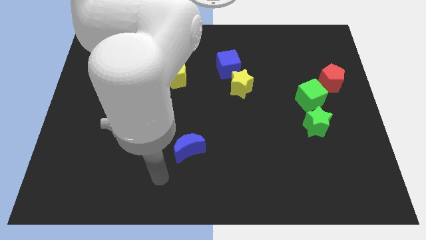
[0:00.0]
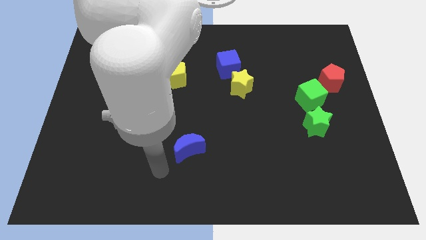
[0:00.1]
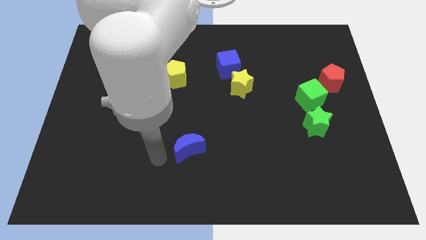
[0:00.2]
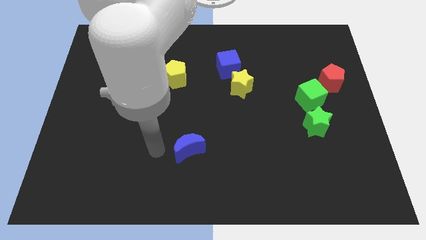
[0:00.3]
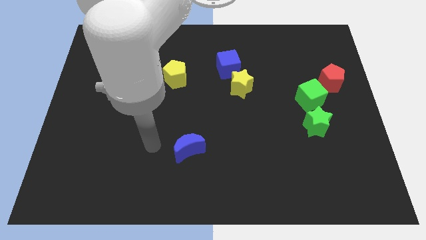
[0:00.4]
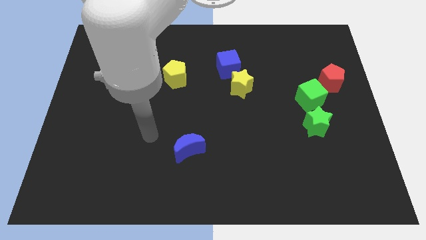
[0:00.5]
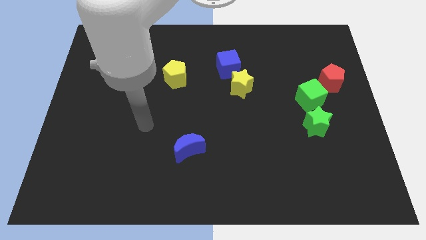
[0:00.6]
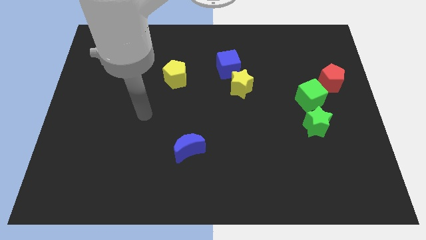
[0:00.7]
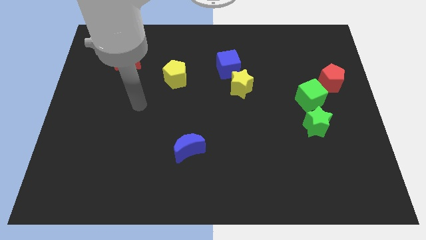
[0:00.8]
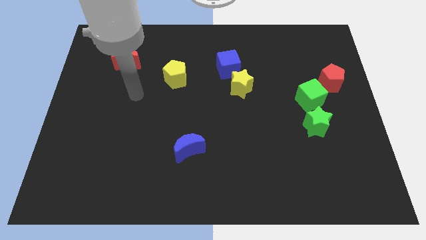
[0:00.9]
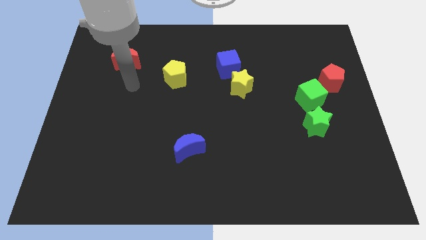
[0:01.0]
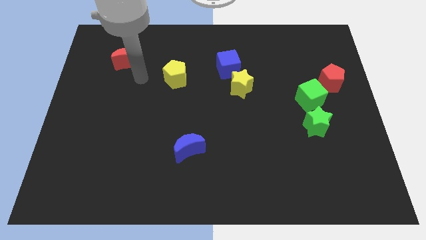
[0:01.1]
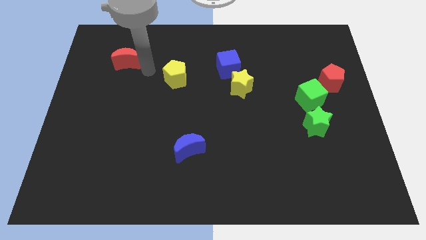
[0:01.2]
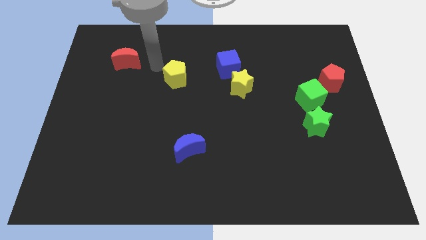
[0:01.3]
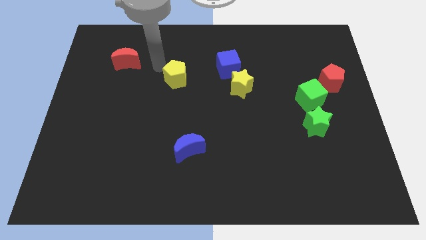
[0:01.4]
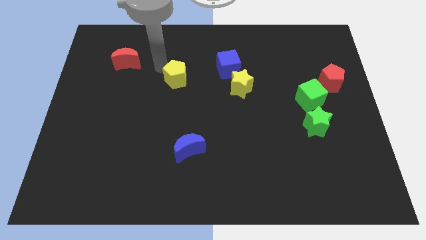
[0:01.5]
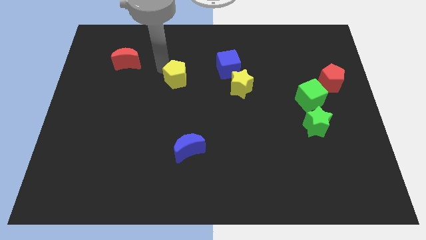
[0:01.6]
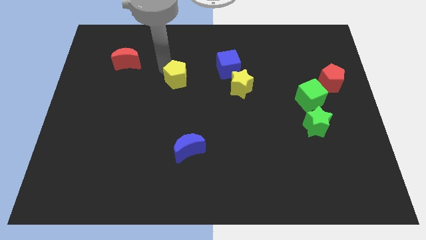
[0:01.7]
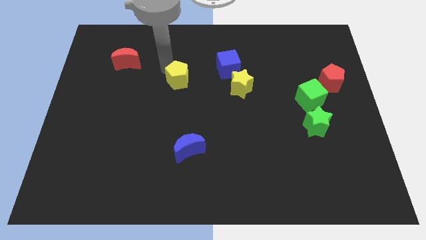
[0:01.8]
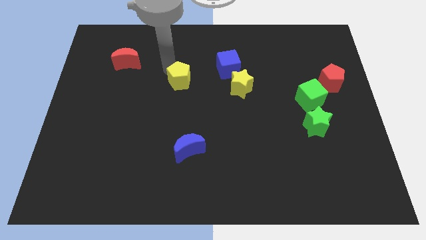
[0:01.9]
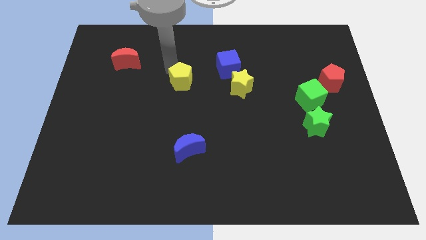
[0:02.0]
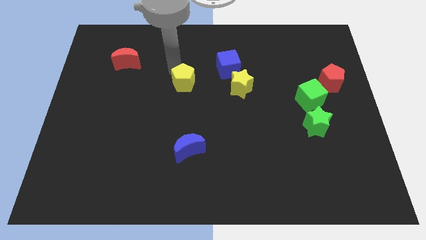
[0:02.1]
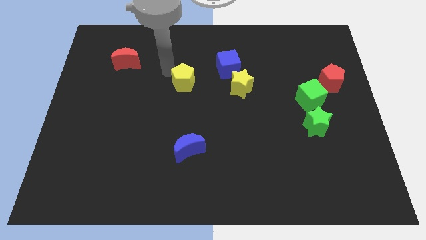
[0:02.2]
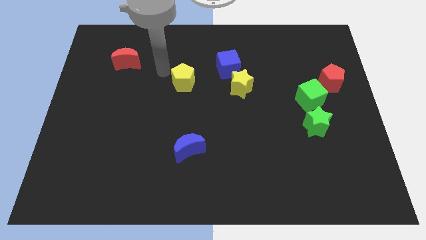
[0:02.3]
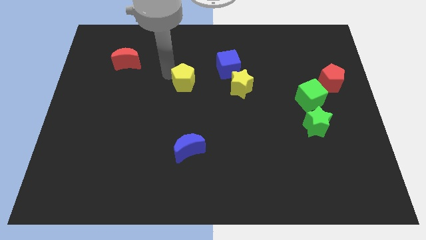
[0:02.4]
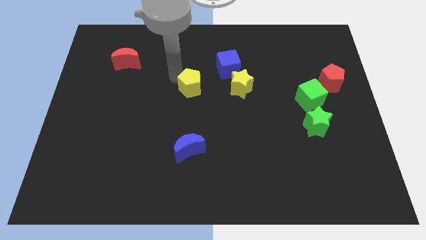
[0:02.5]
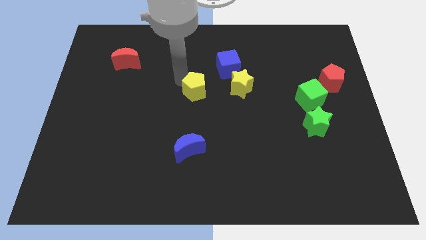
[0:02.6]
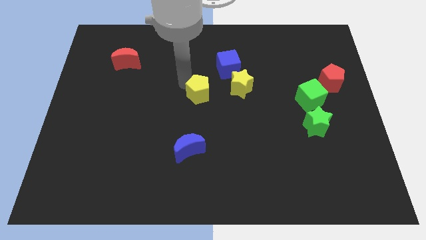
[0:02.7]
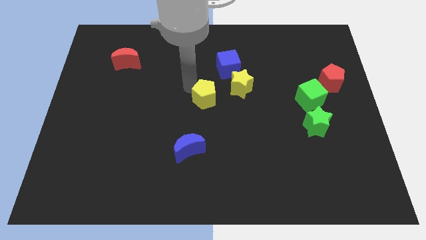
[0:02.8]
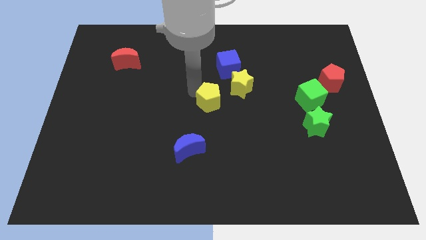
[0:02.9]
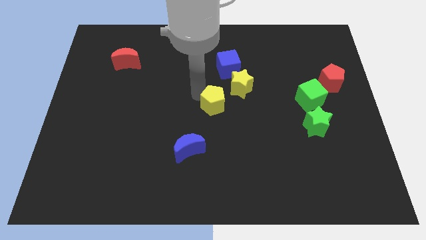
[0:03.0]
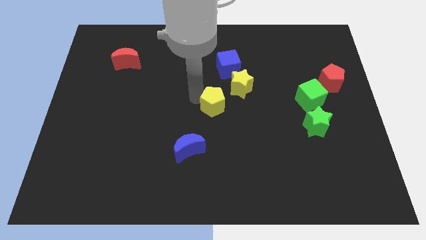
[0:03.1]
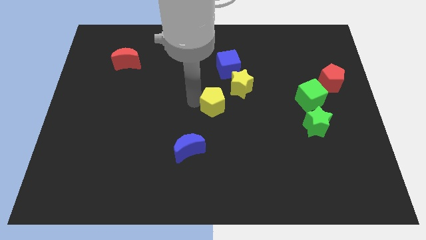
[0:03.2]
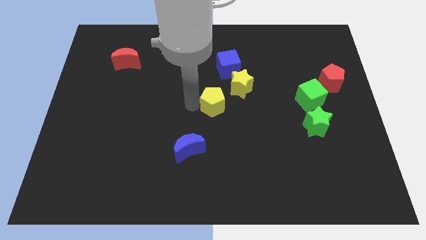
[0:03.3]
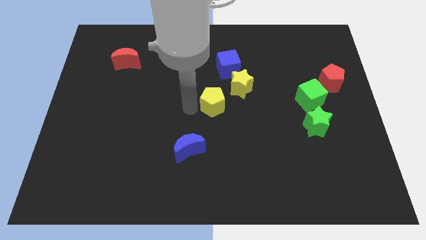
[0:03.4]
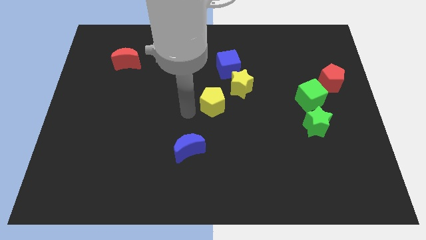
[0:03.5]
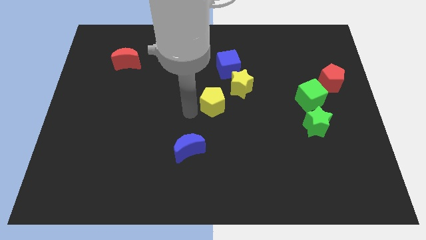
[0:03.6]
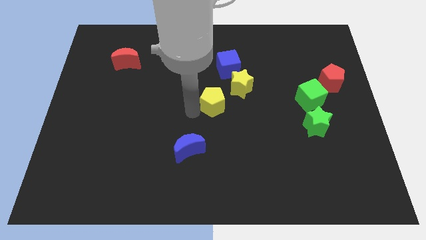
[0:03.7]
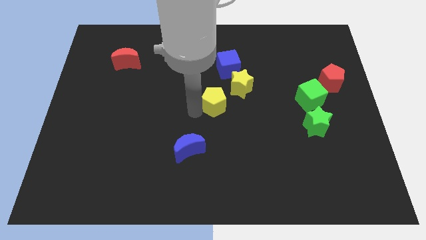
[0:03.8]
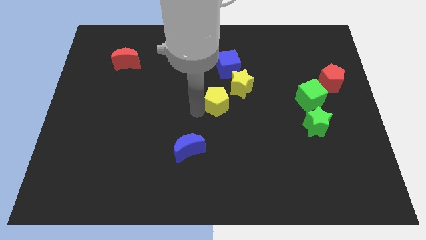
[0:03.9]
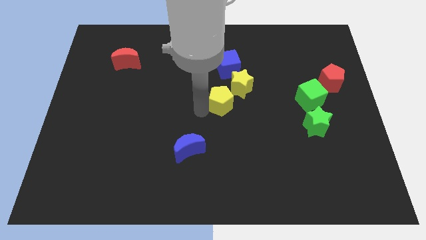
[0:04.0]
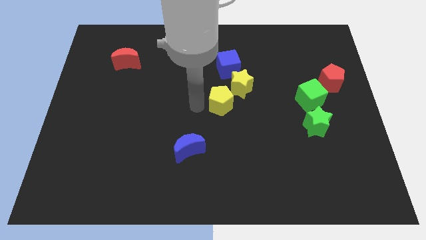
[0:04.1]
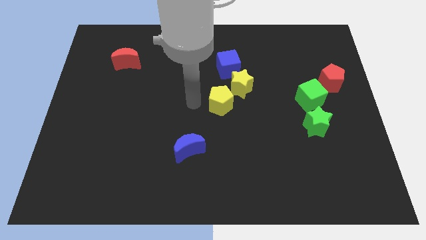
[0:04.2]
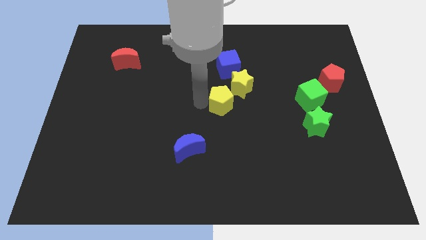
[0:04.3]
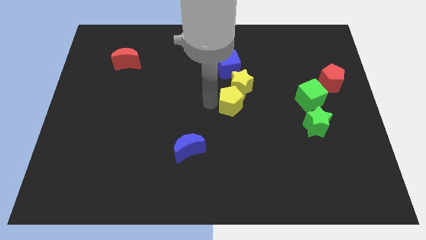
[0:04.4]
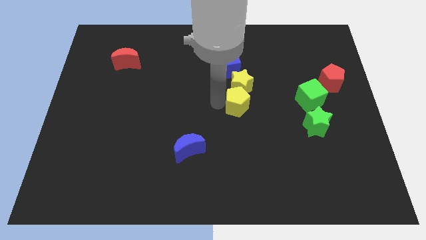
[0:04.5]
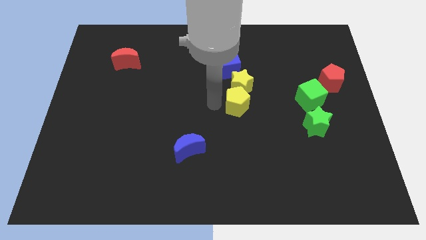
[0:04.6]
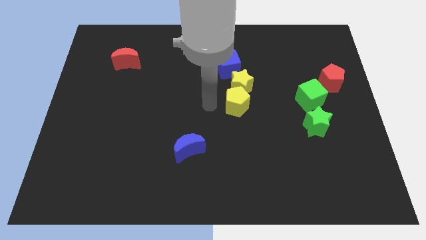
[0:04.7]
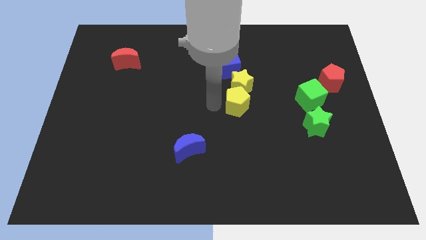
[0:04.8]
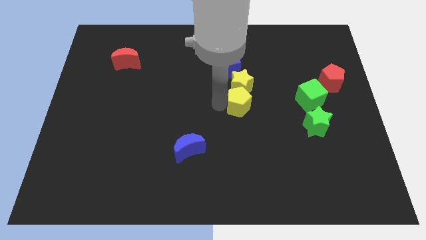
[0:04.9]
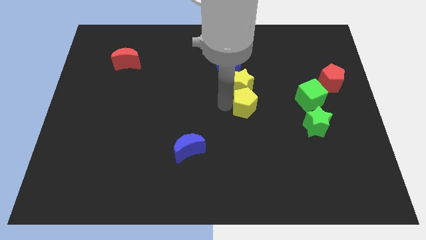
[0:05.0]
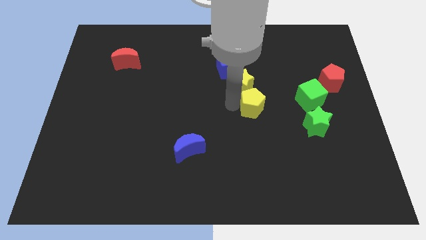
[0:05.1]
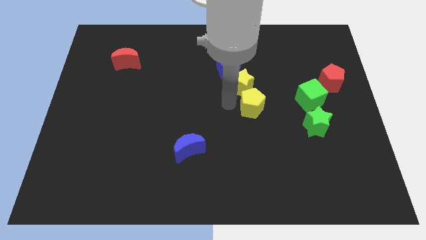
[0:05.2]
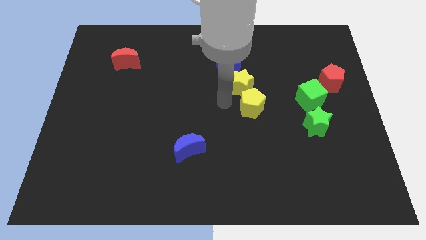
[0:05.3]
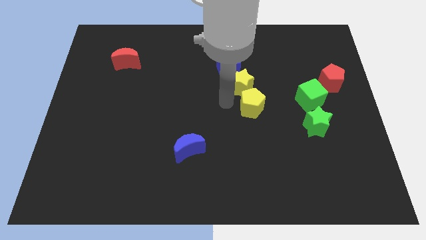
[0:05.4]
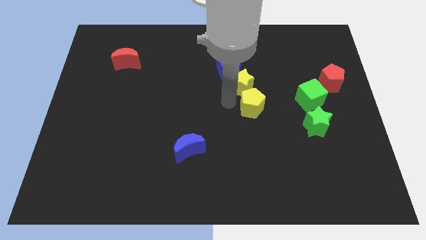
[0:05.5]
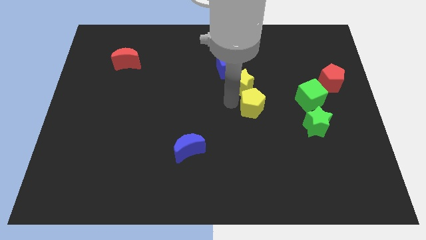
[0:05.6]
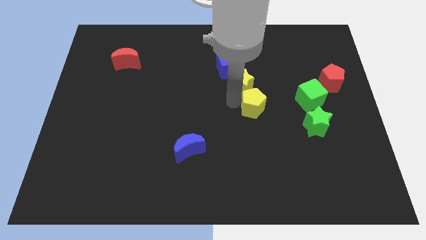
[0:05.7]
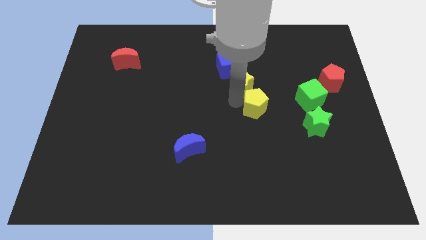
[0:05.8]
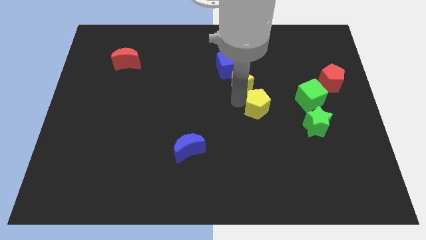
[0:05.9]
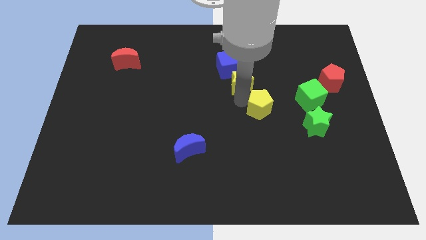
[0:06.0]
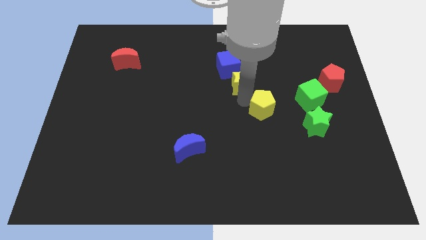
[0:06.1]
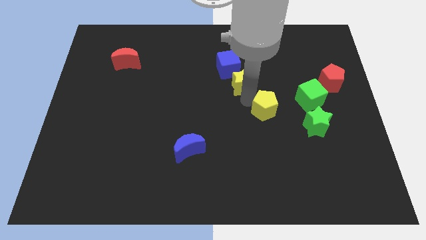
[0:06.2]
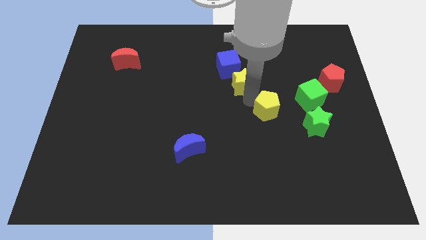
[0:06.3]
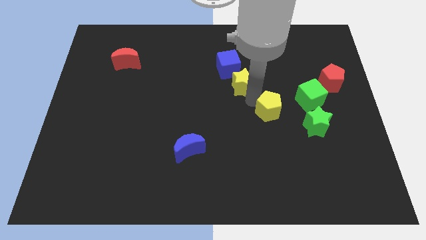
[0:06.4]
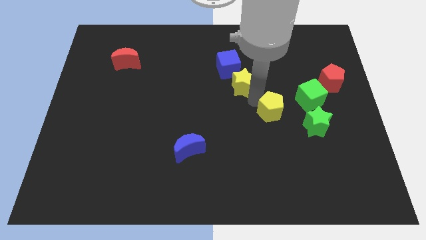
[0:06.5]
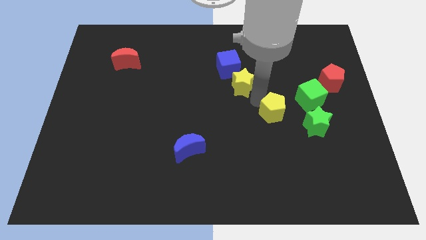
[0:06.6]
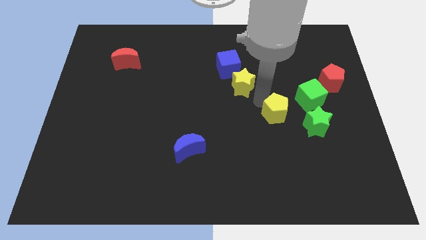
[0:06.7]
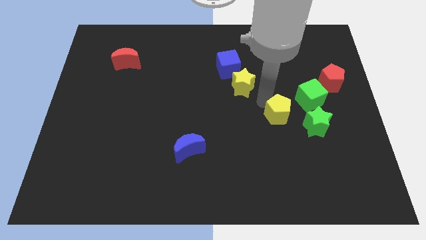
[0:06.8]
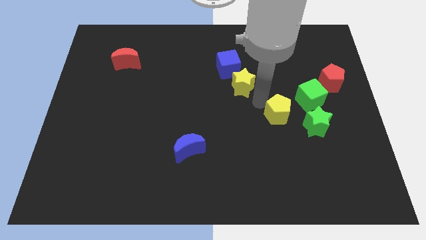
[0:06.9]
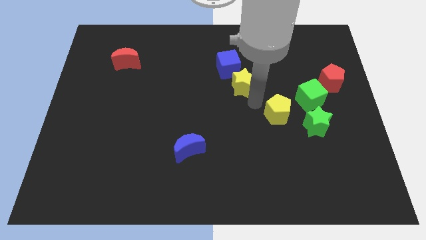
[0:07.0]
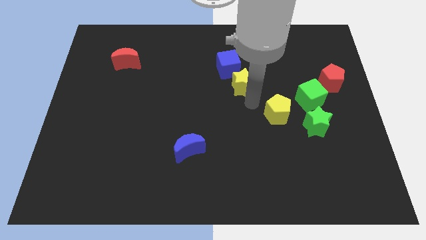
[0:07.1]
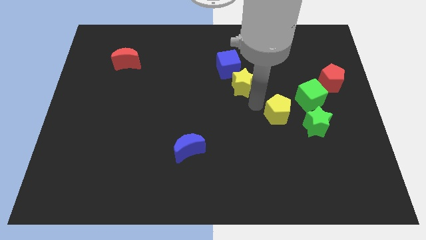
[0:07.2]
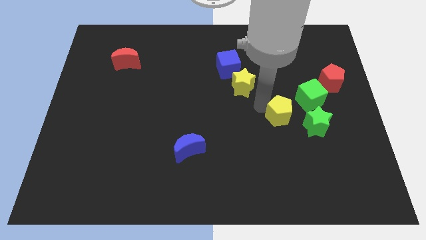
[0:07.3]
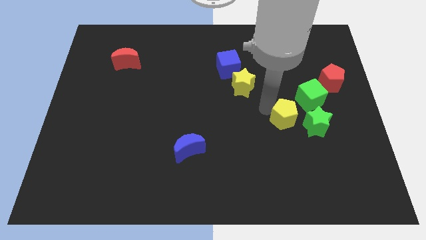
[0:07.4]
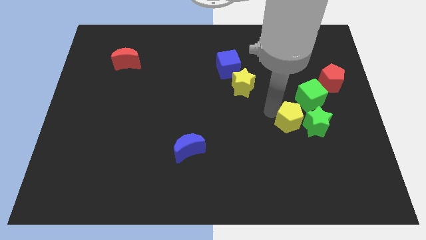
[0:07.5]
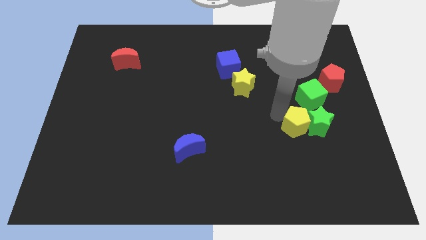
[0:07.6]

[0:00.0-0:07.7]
put the yellow pentagon close to the green star
